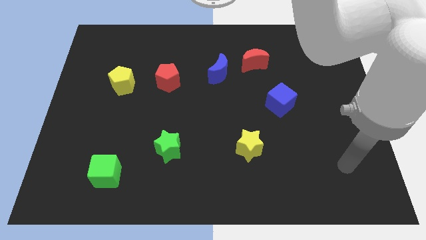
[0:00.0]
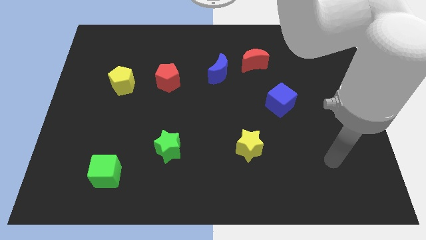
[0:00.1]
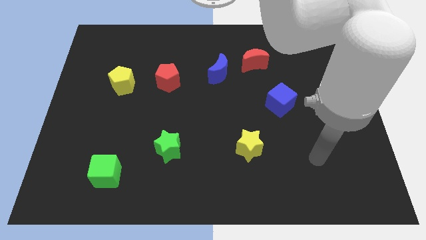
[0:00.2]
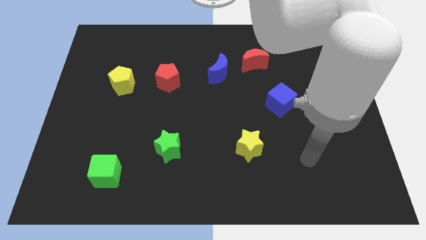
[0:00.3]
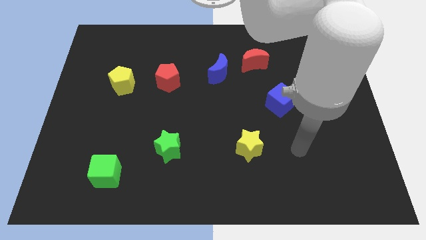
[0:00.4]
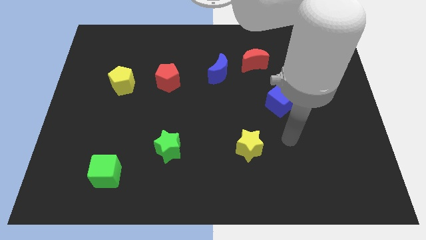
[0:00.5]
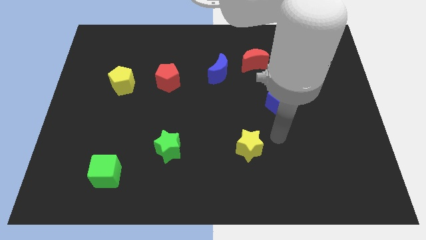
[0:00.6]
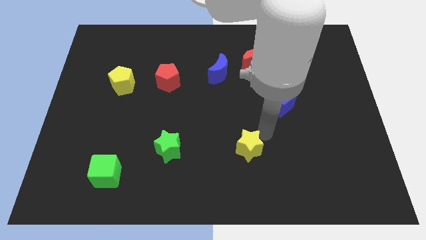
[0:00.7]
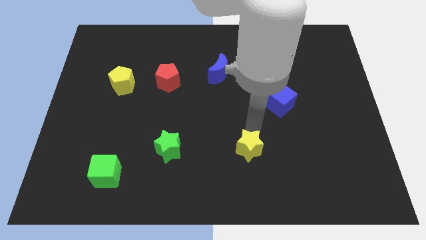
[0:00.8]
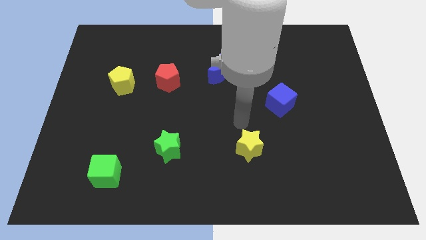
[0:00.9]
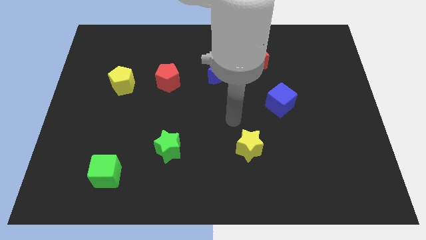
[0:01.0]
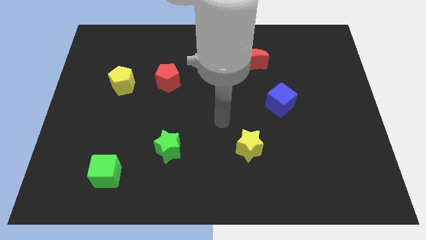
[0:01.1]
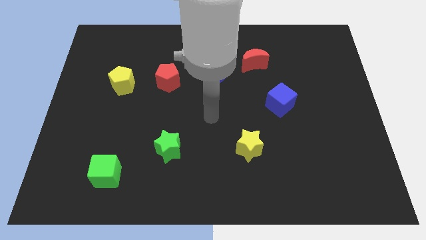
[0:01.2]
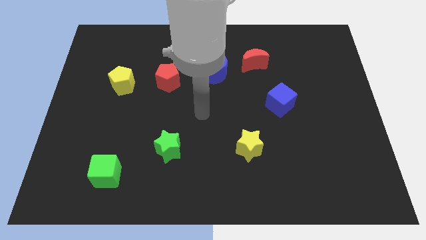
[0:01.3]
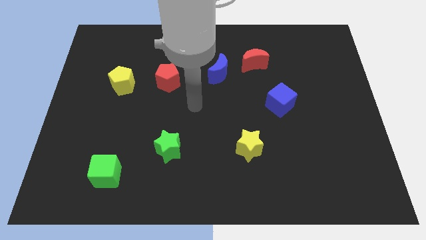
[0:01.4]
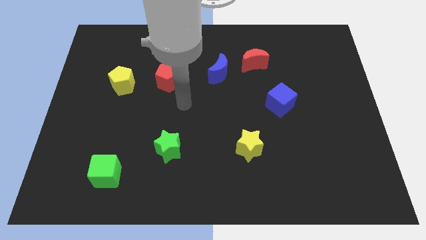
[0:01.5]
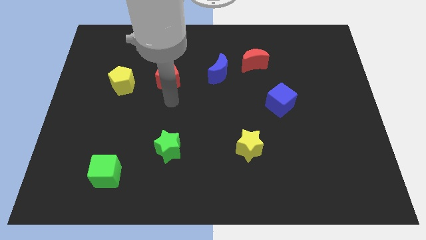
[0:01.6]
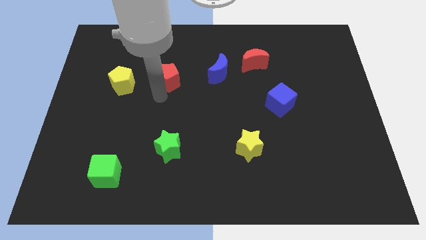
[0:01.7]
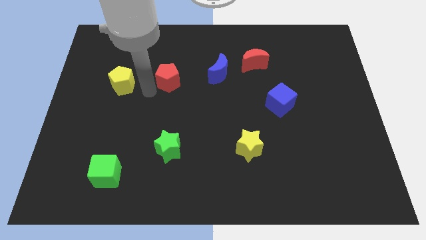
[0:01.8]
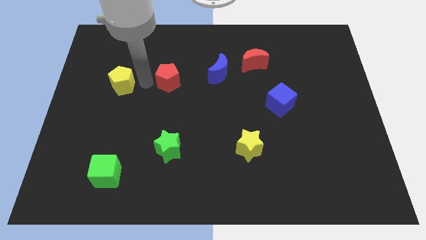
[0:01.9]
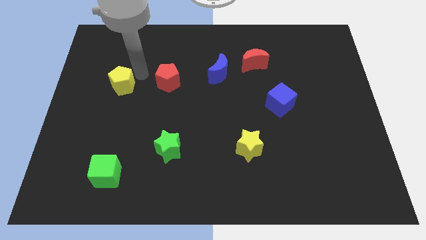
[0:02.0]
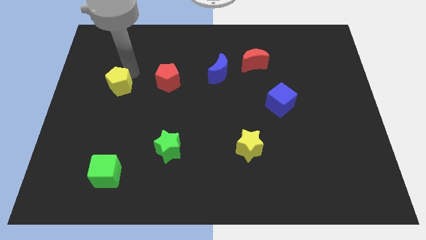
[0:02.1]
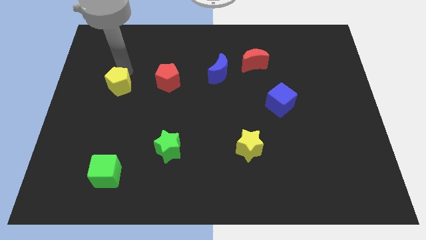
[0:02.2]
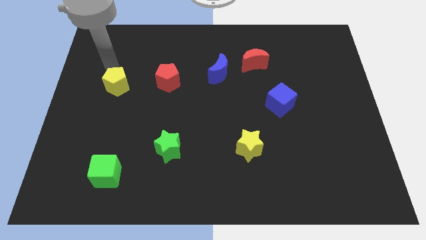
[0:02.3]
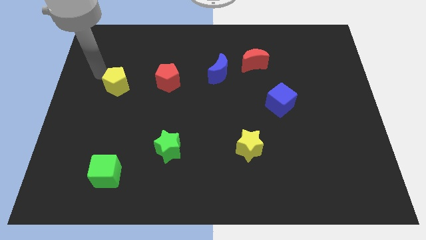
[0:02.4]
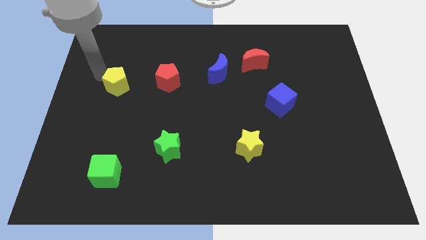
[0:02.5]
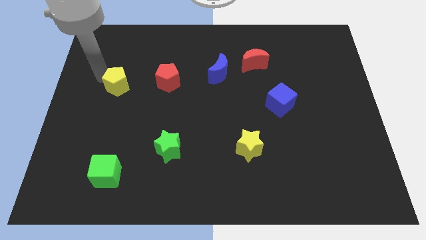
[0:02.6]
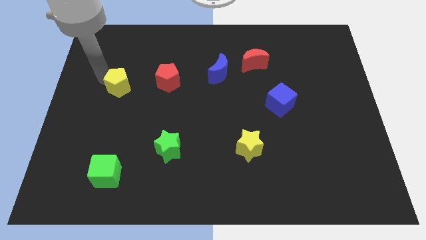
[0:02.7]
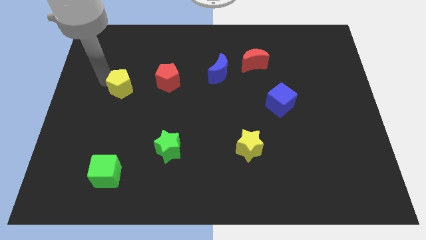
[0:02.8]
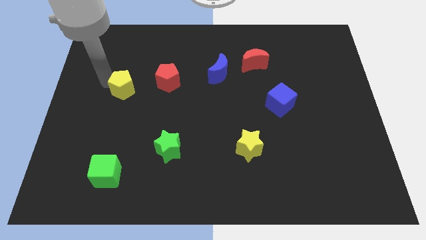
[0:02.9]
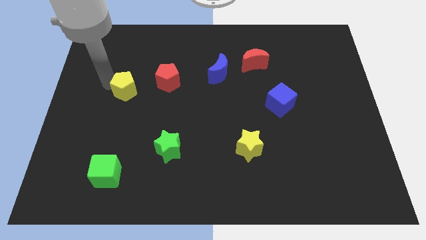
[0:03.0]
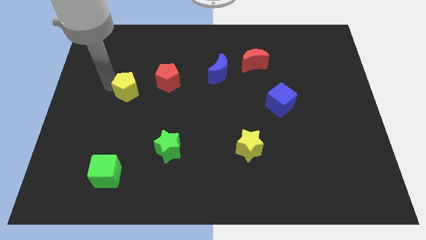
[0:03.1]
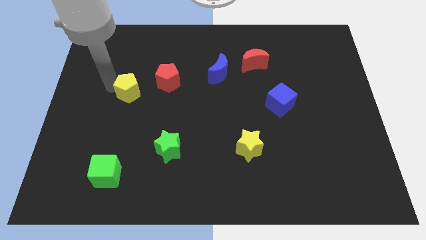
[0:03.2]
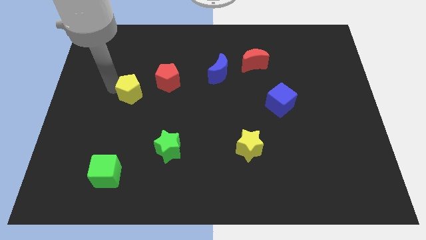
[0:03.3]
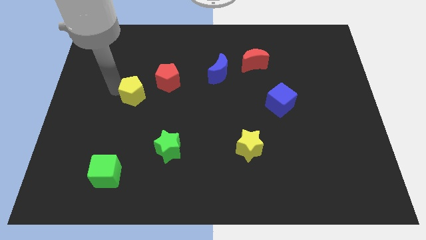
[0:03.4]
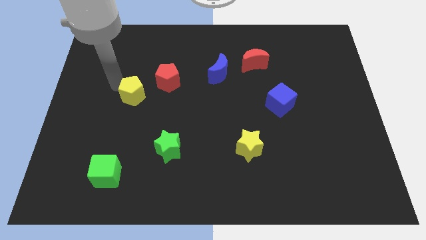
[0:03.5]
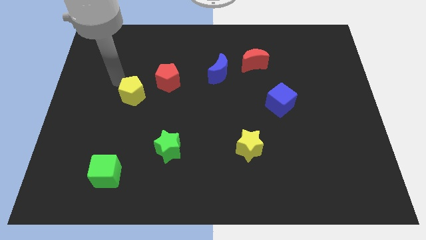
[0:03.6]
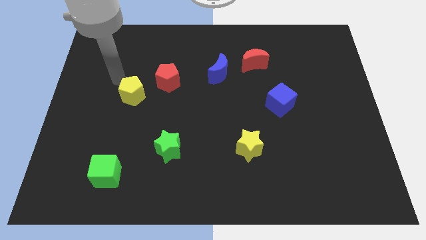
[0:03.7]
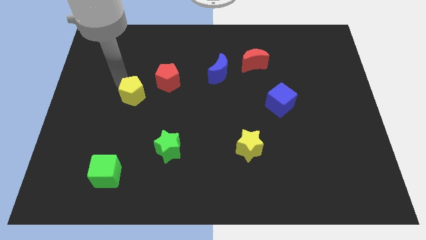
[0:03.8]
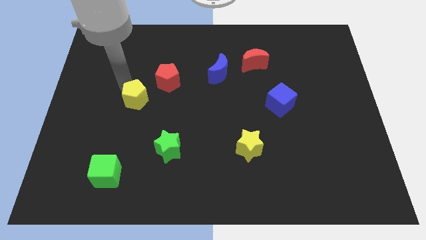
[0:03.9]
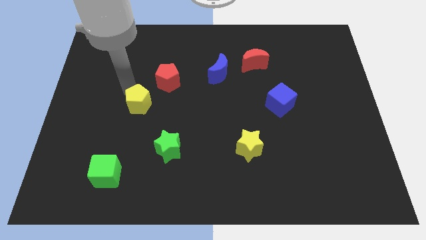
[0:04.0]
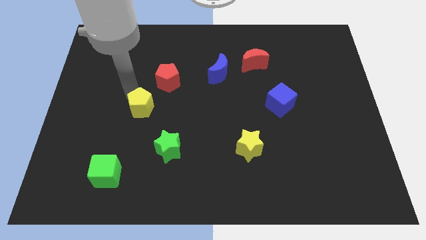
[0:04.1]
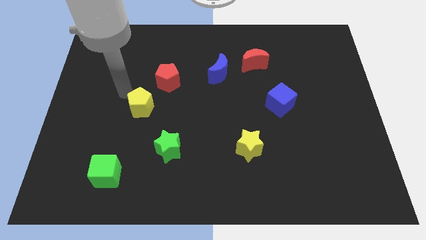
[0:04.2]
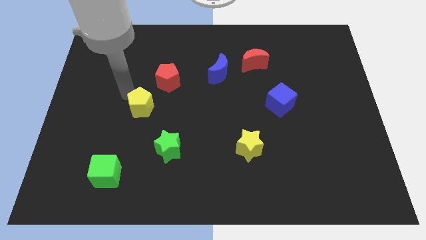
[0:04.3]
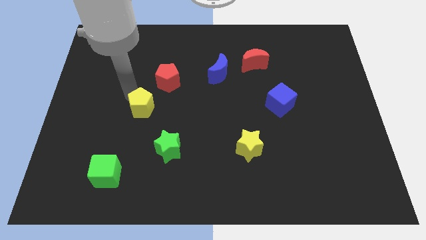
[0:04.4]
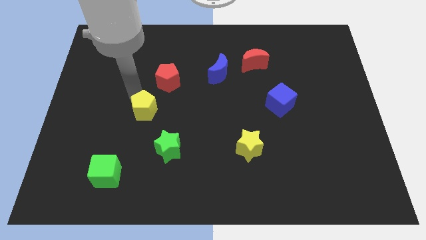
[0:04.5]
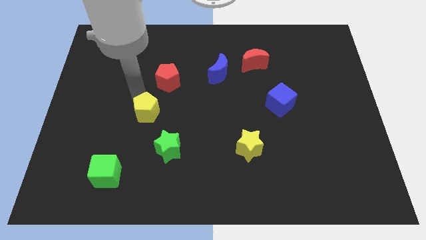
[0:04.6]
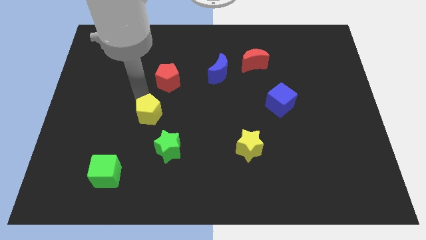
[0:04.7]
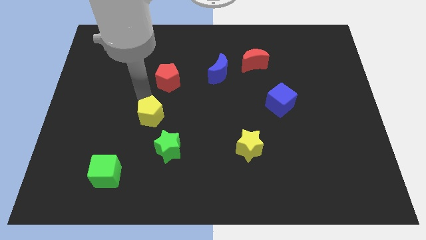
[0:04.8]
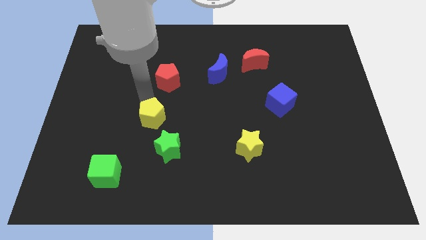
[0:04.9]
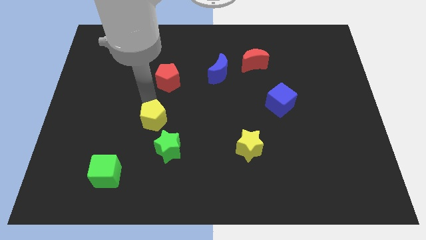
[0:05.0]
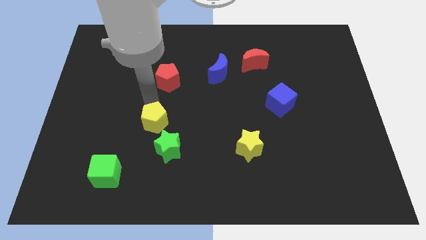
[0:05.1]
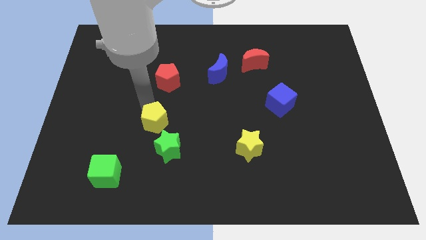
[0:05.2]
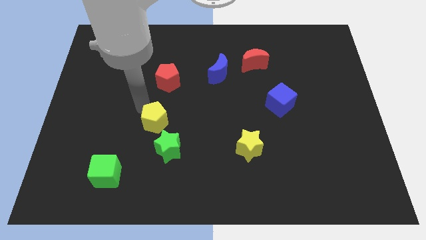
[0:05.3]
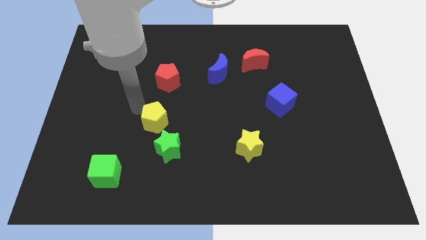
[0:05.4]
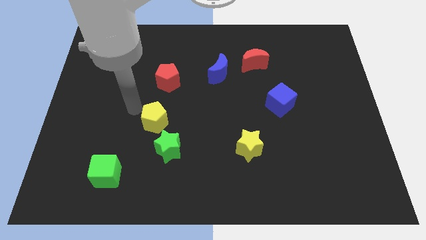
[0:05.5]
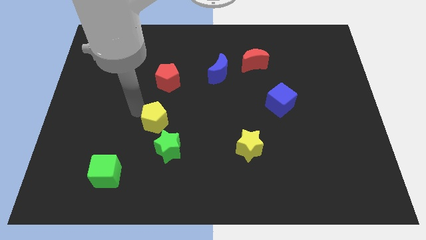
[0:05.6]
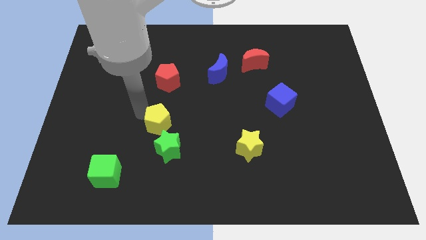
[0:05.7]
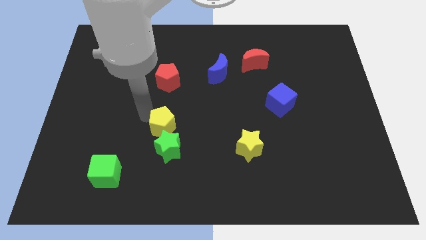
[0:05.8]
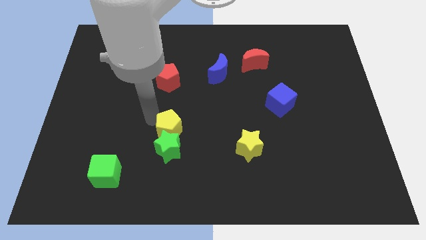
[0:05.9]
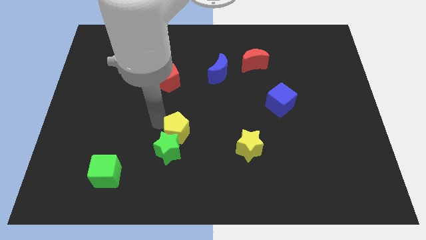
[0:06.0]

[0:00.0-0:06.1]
move the yellow pentagon down and right diagonally

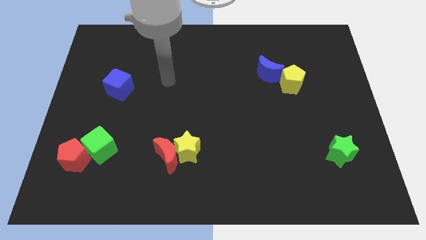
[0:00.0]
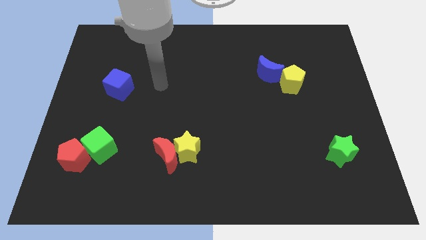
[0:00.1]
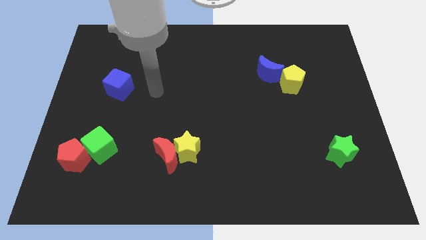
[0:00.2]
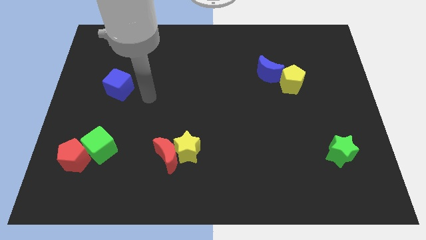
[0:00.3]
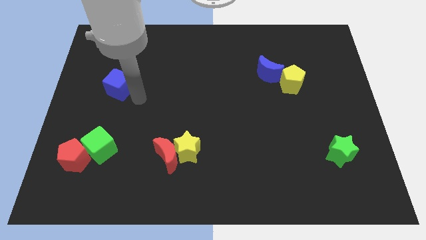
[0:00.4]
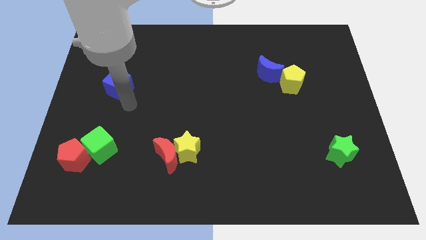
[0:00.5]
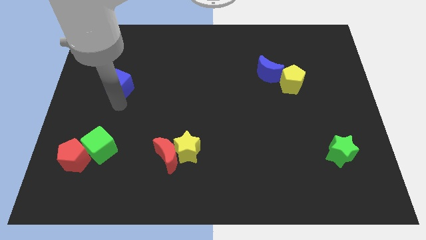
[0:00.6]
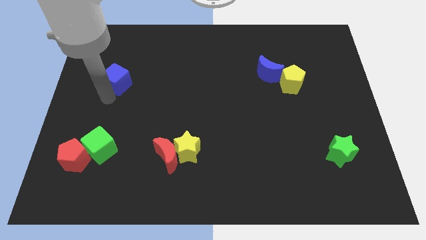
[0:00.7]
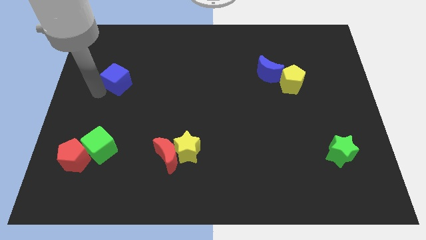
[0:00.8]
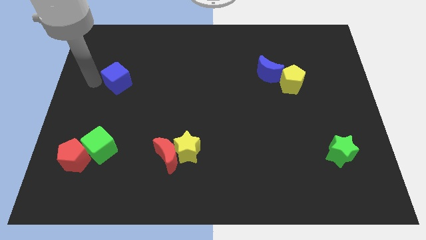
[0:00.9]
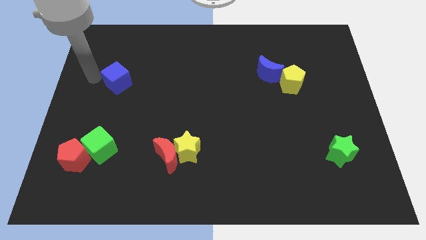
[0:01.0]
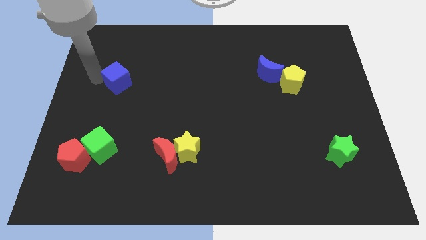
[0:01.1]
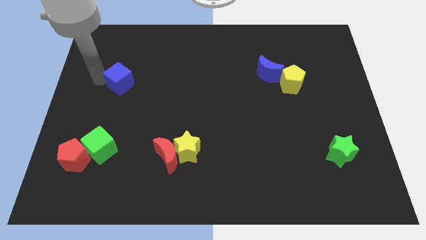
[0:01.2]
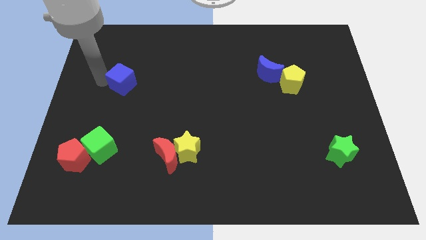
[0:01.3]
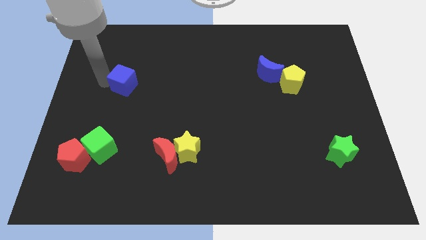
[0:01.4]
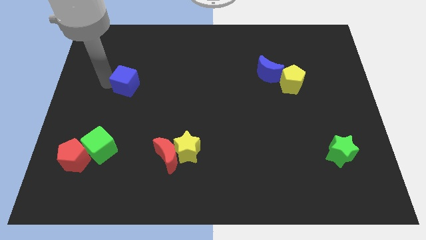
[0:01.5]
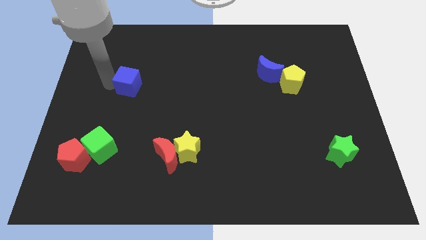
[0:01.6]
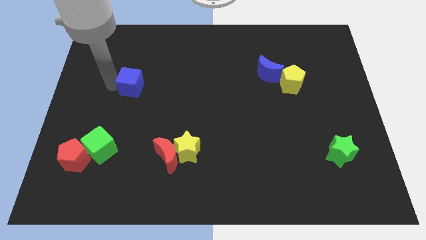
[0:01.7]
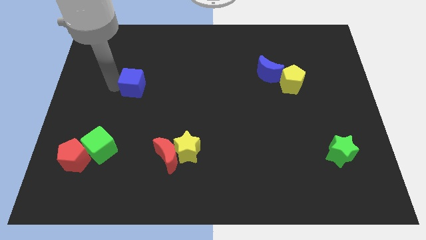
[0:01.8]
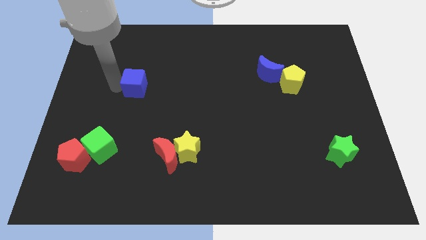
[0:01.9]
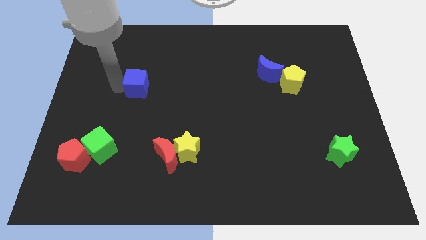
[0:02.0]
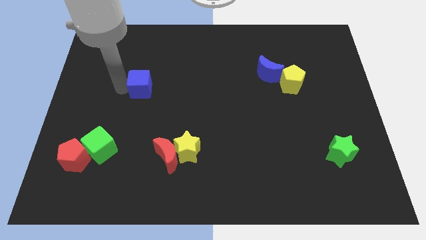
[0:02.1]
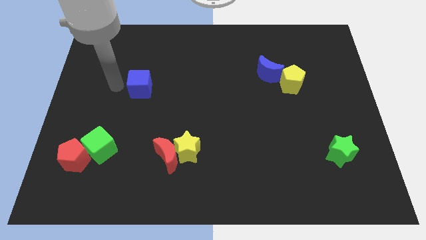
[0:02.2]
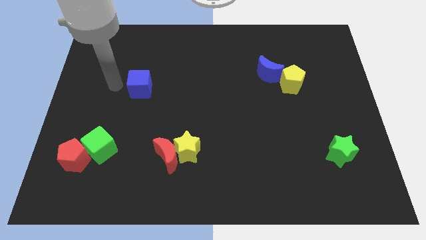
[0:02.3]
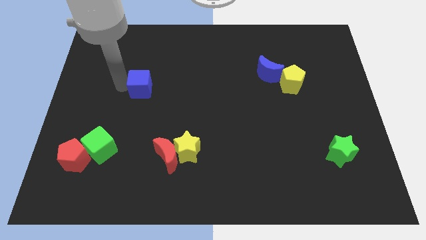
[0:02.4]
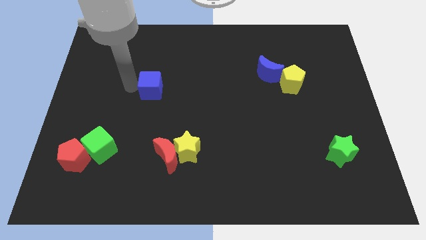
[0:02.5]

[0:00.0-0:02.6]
slightly push the blue cube right
